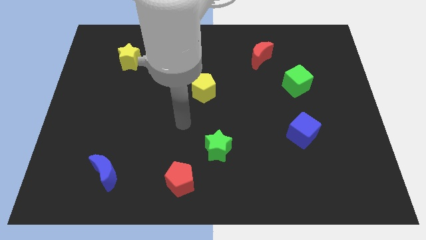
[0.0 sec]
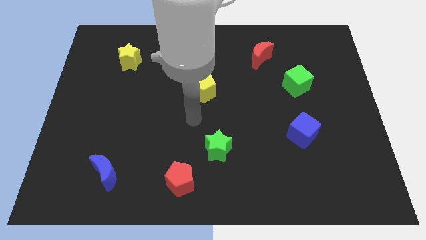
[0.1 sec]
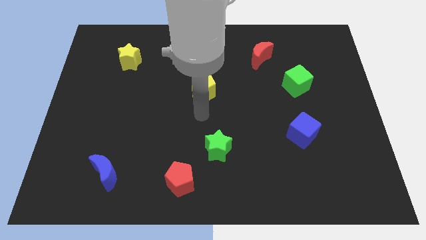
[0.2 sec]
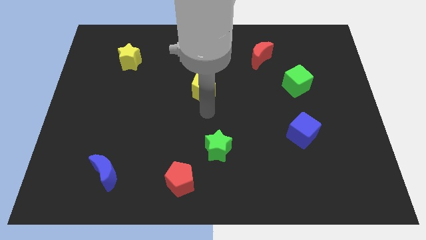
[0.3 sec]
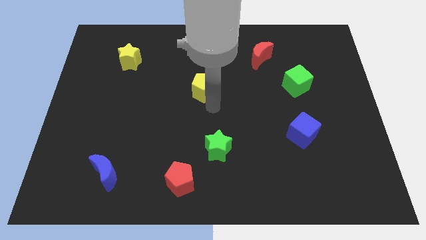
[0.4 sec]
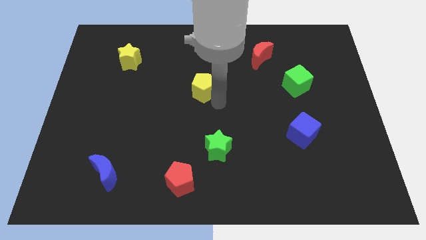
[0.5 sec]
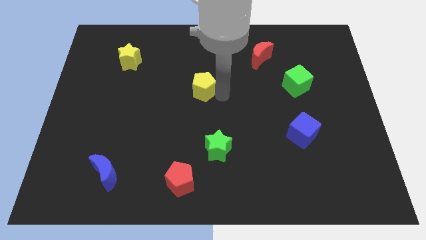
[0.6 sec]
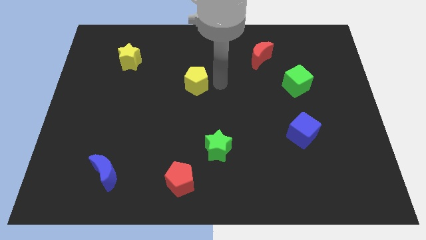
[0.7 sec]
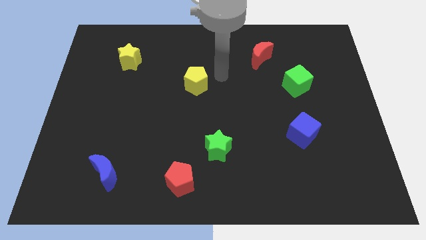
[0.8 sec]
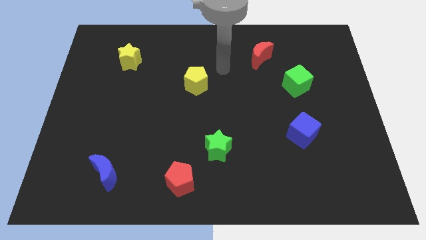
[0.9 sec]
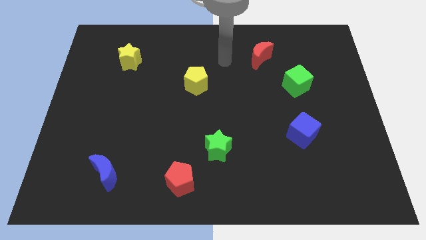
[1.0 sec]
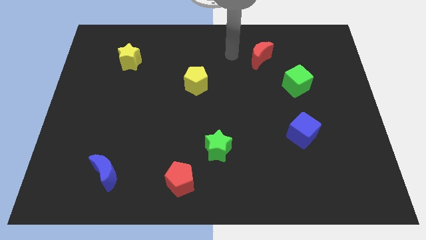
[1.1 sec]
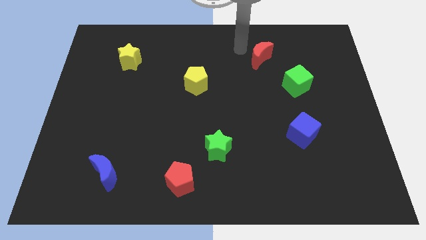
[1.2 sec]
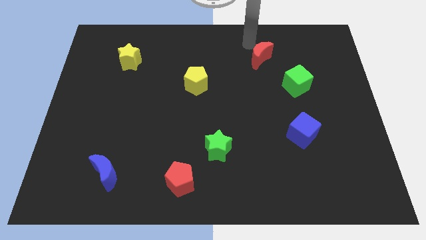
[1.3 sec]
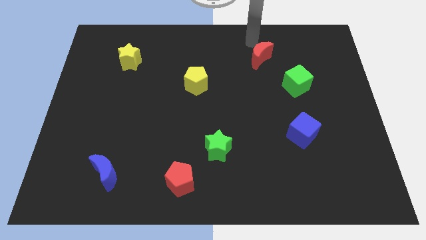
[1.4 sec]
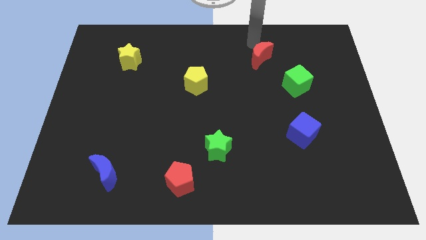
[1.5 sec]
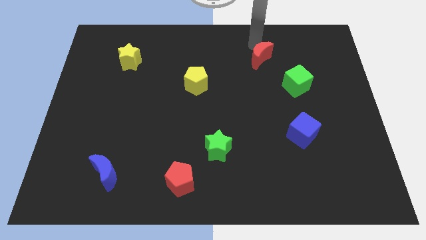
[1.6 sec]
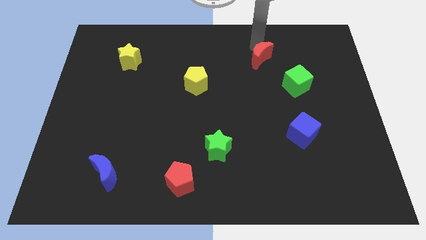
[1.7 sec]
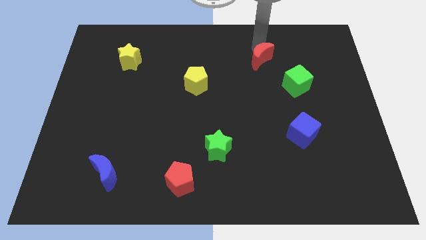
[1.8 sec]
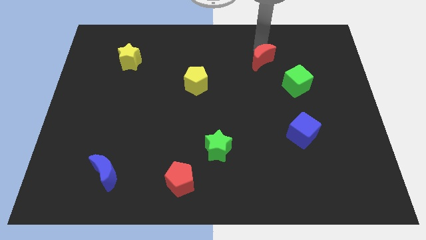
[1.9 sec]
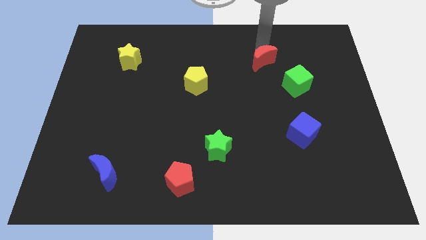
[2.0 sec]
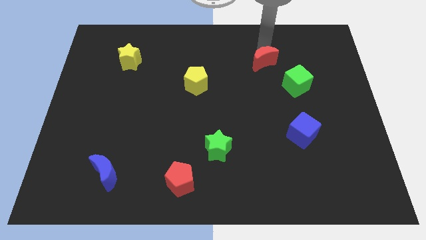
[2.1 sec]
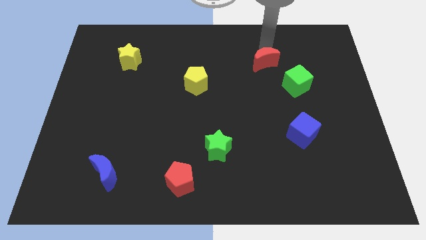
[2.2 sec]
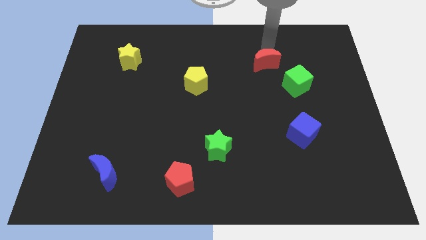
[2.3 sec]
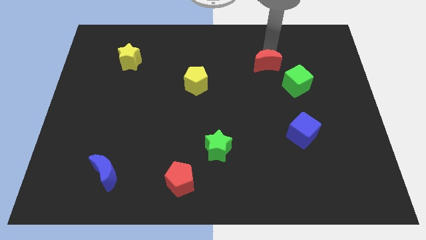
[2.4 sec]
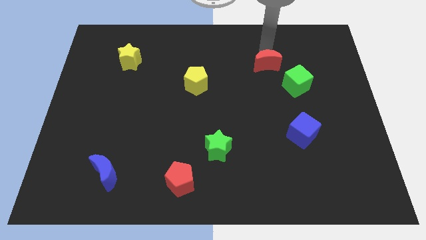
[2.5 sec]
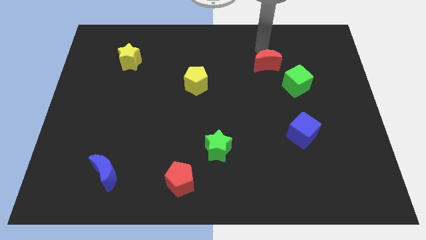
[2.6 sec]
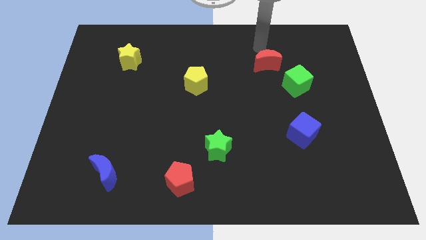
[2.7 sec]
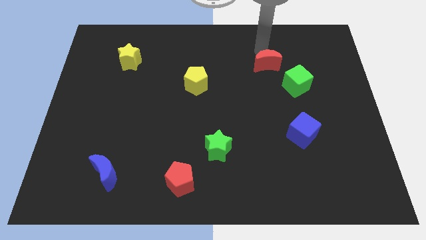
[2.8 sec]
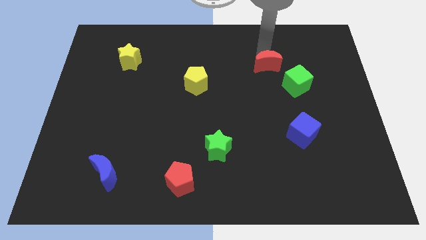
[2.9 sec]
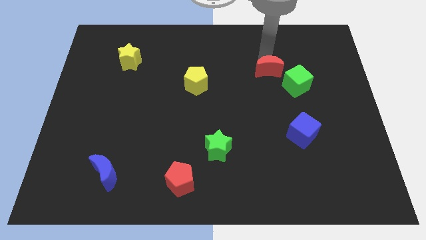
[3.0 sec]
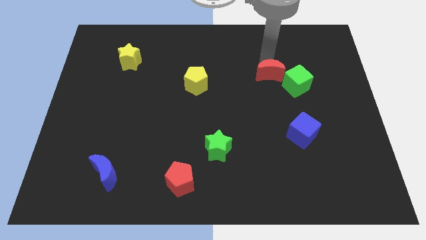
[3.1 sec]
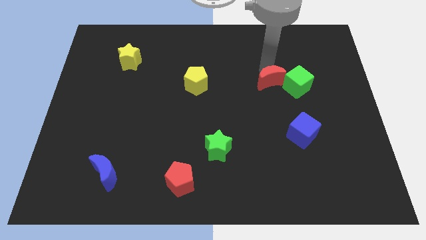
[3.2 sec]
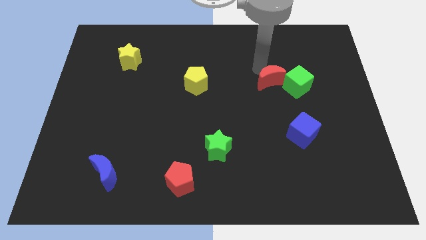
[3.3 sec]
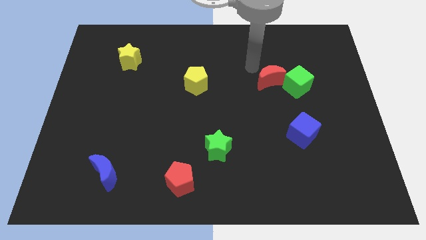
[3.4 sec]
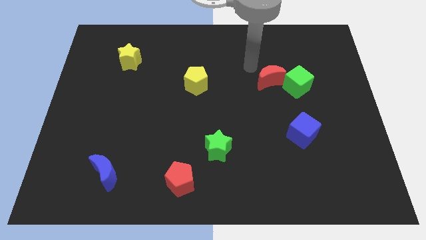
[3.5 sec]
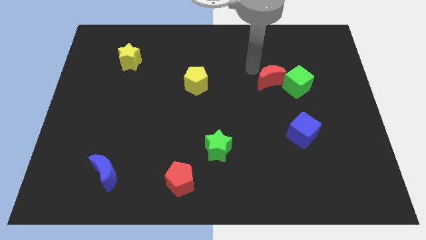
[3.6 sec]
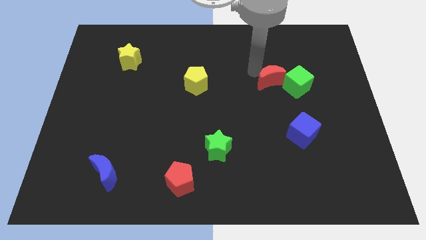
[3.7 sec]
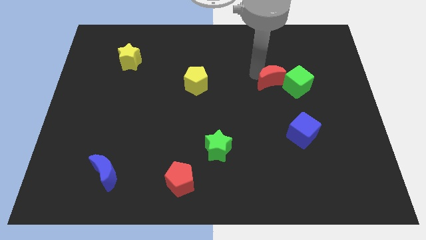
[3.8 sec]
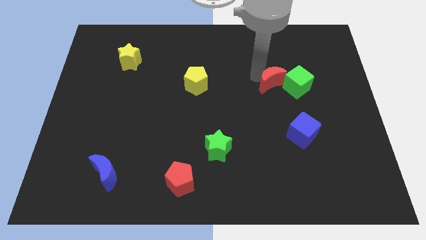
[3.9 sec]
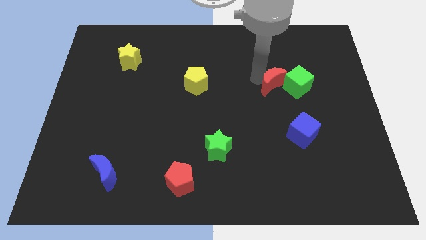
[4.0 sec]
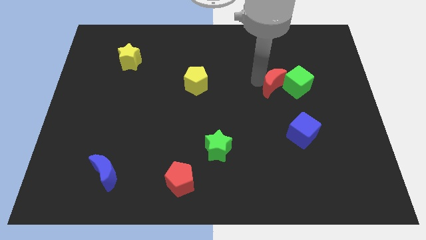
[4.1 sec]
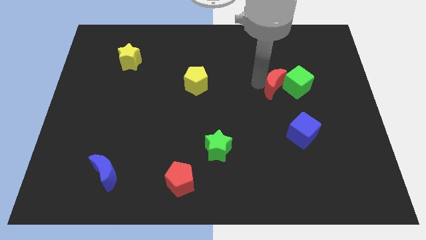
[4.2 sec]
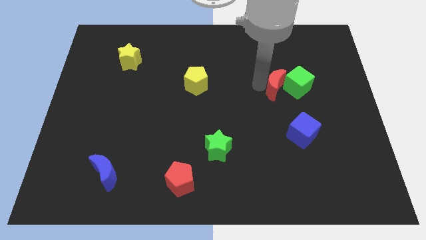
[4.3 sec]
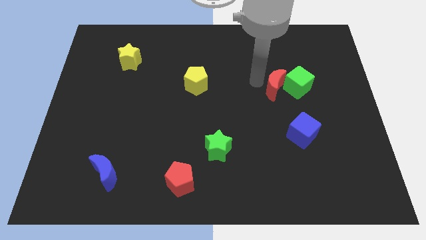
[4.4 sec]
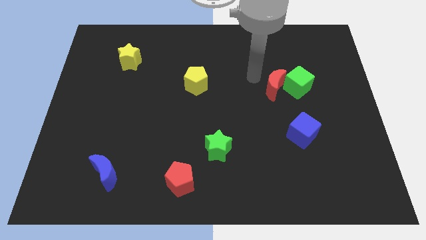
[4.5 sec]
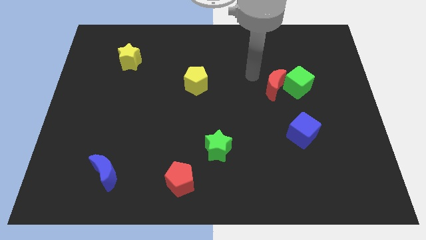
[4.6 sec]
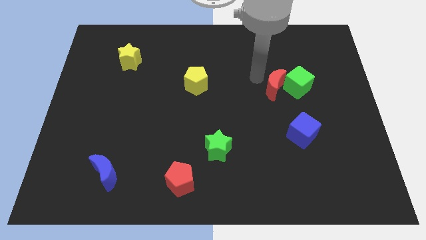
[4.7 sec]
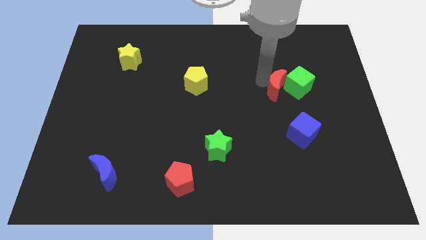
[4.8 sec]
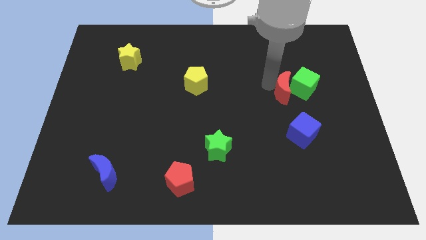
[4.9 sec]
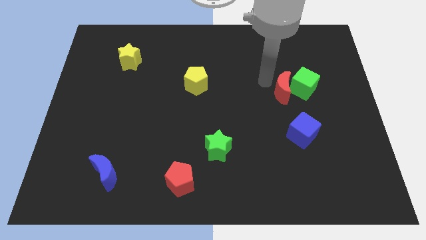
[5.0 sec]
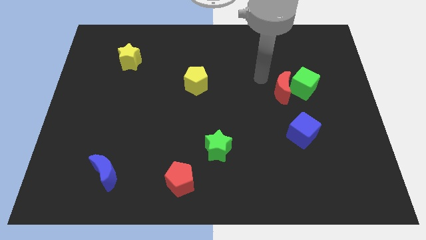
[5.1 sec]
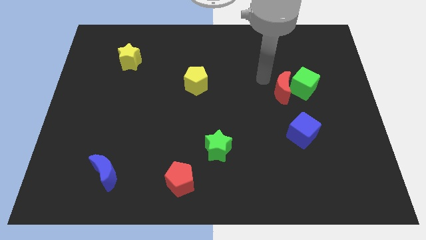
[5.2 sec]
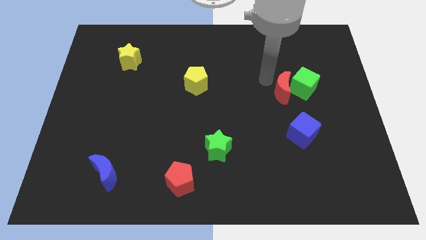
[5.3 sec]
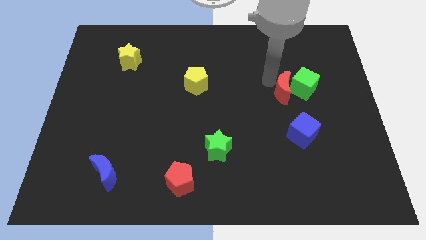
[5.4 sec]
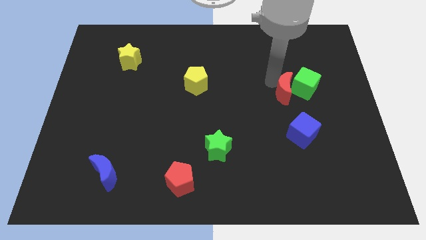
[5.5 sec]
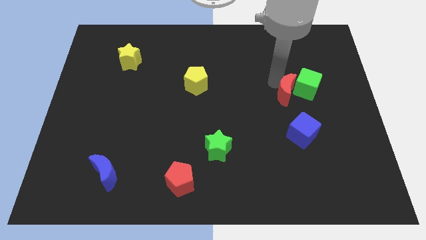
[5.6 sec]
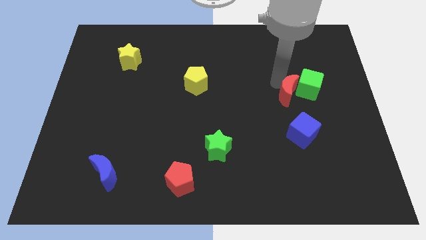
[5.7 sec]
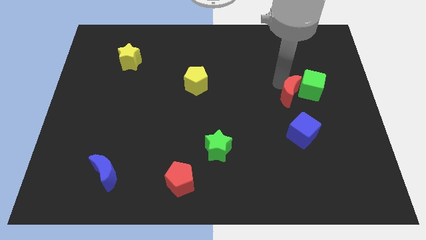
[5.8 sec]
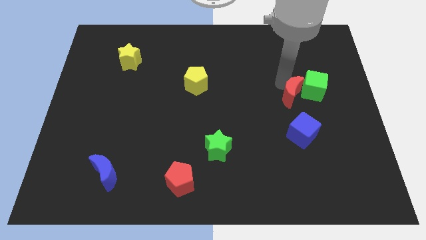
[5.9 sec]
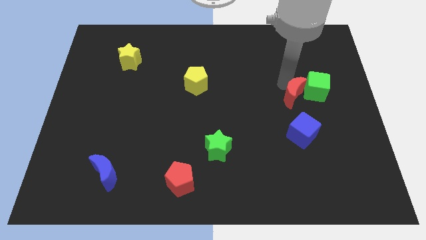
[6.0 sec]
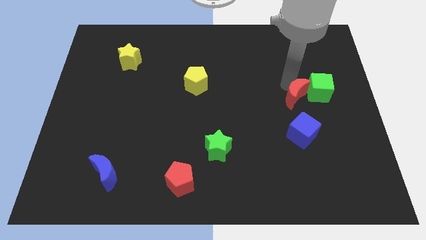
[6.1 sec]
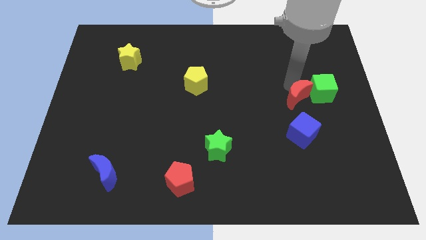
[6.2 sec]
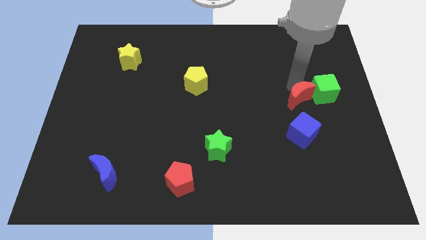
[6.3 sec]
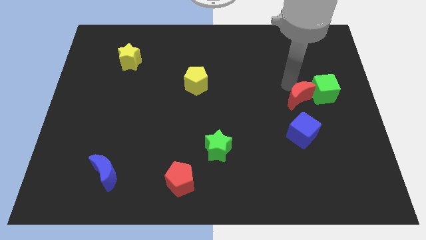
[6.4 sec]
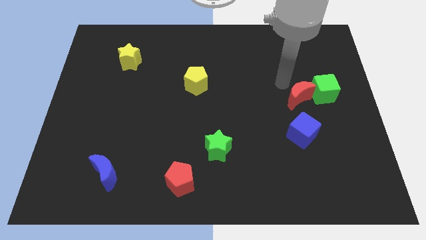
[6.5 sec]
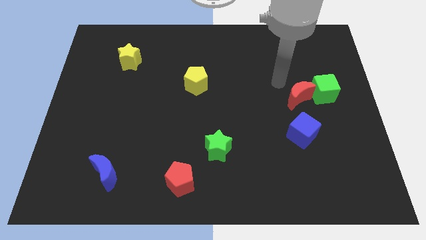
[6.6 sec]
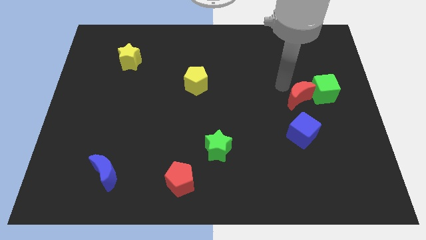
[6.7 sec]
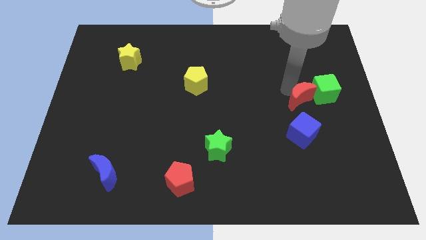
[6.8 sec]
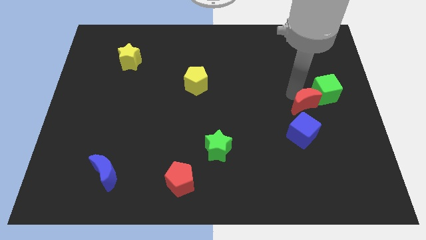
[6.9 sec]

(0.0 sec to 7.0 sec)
move the red moon to the top right side of the blue cube
